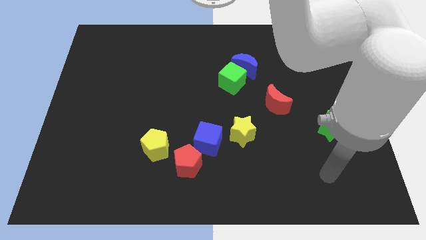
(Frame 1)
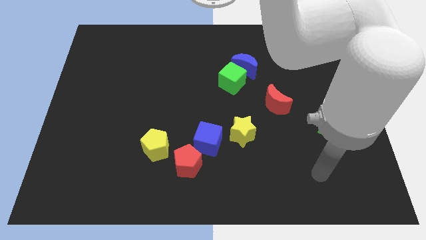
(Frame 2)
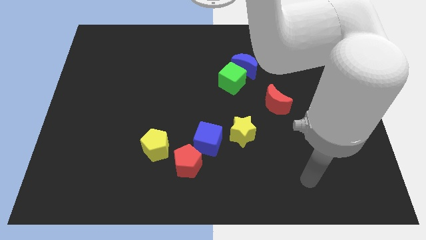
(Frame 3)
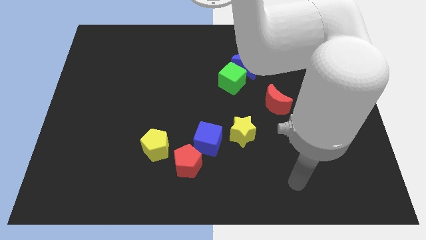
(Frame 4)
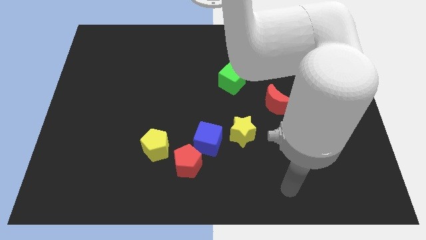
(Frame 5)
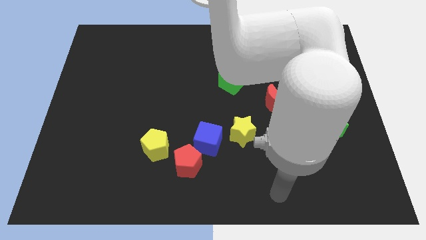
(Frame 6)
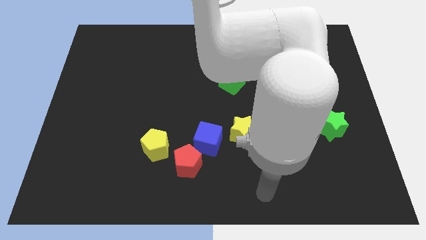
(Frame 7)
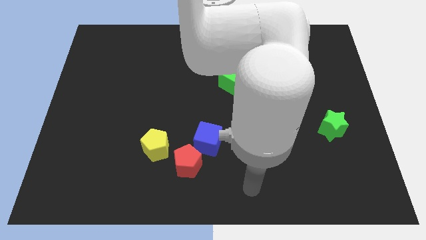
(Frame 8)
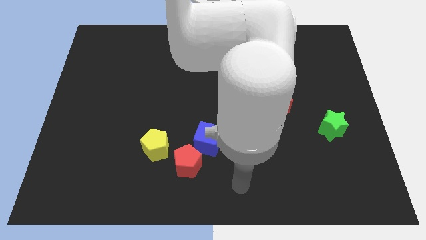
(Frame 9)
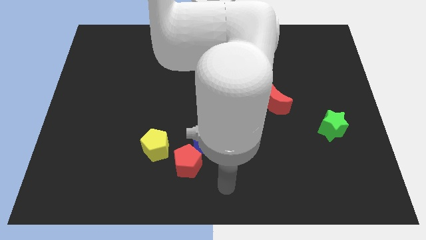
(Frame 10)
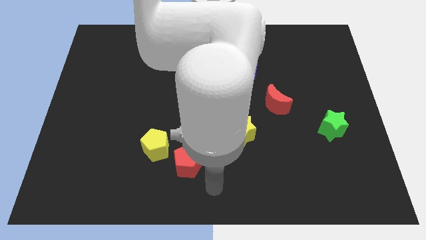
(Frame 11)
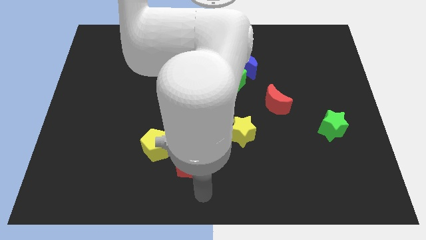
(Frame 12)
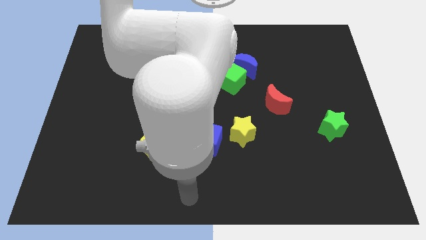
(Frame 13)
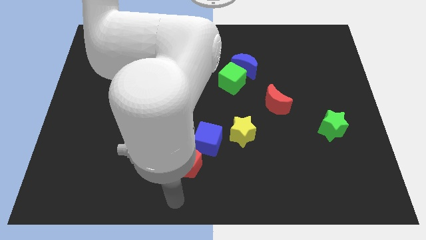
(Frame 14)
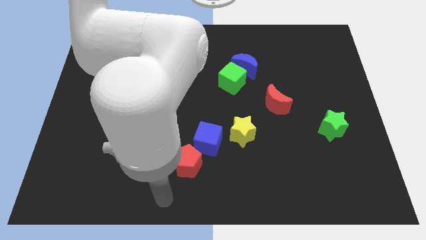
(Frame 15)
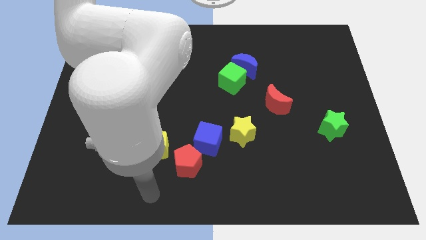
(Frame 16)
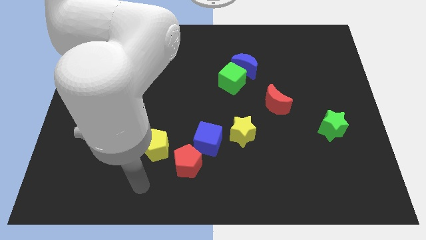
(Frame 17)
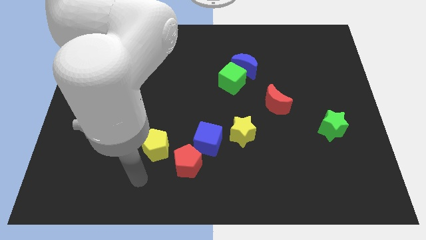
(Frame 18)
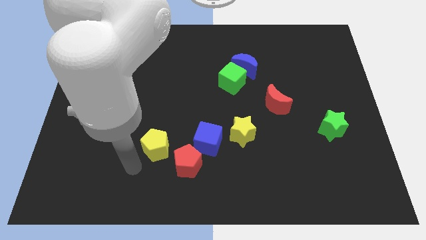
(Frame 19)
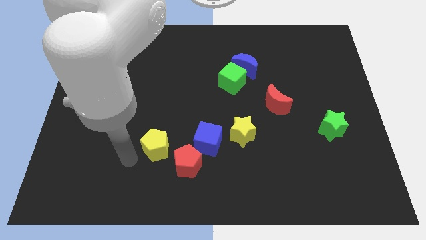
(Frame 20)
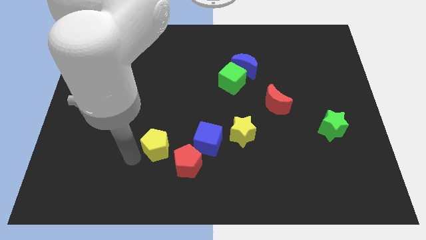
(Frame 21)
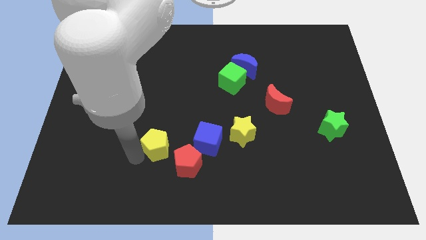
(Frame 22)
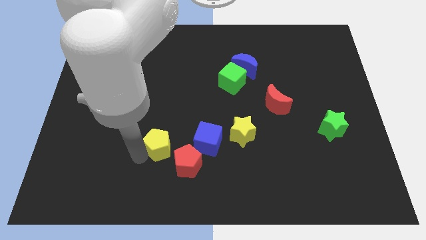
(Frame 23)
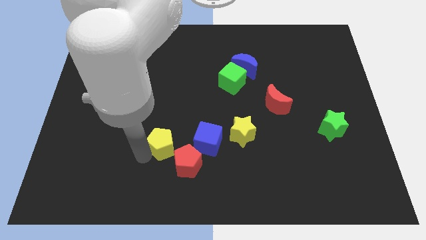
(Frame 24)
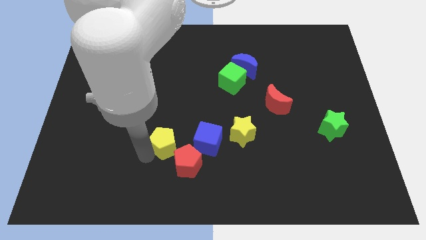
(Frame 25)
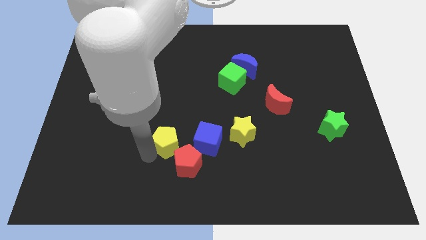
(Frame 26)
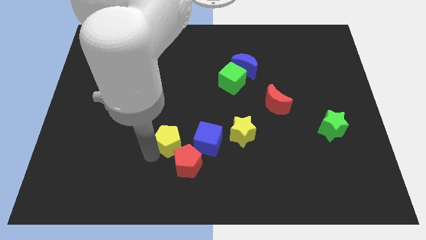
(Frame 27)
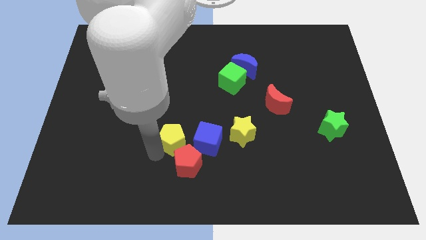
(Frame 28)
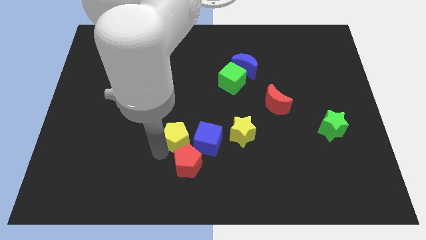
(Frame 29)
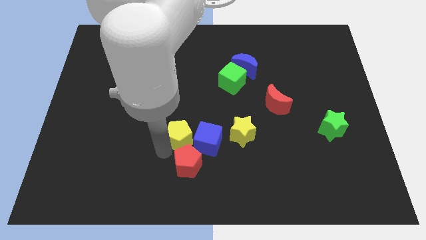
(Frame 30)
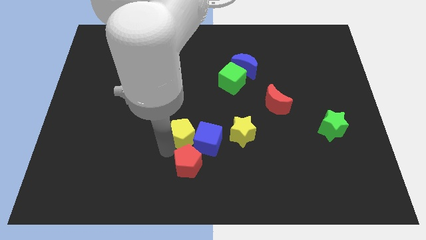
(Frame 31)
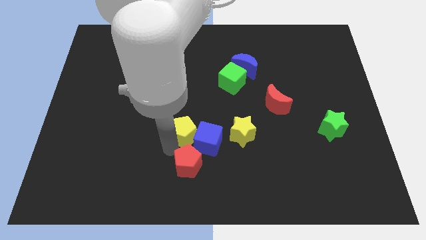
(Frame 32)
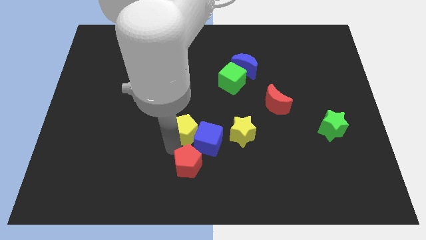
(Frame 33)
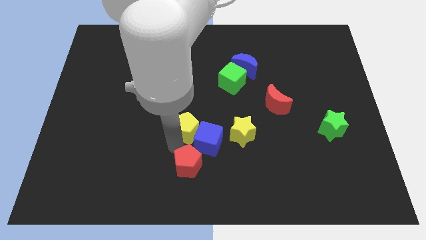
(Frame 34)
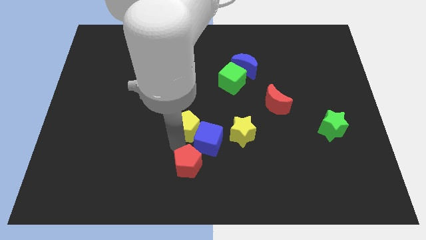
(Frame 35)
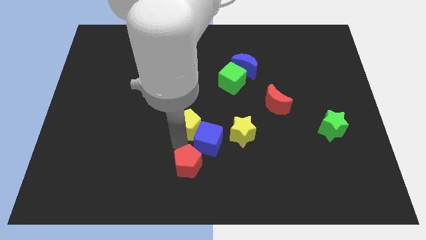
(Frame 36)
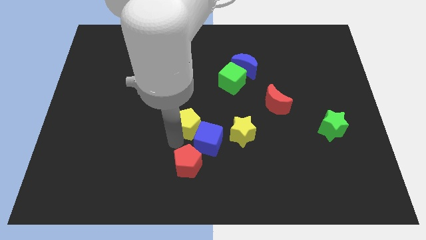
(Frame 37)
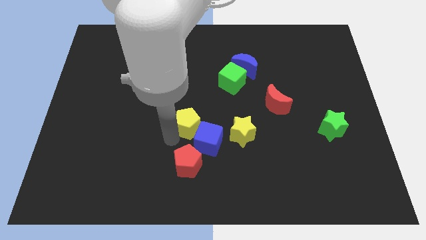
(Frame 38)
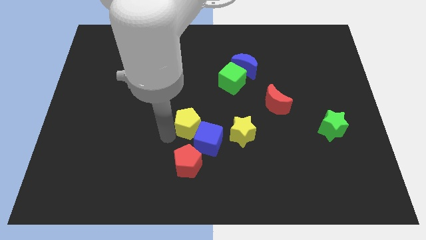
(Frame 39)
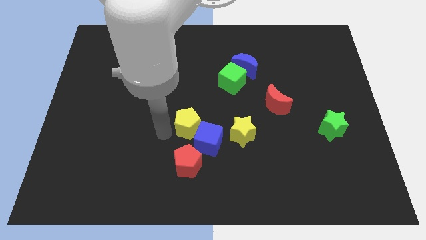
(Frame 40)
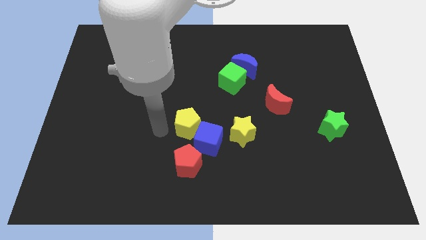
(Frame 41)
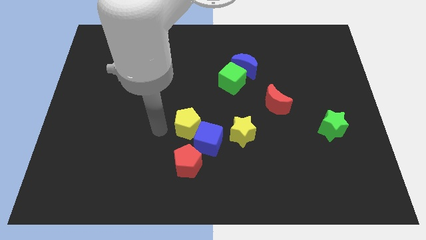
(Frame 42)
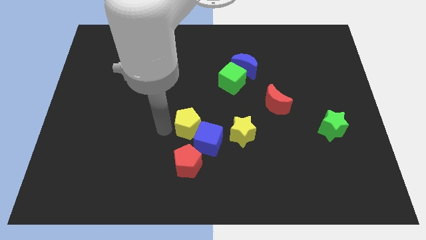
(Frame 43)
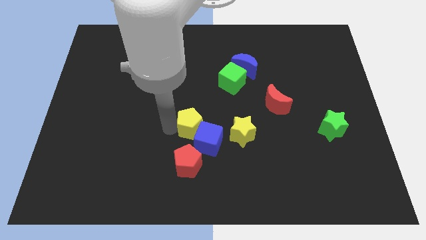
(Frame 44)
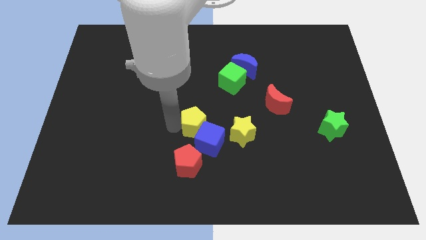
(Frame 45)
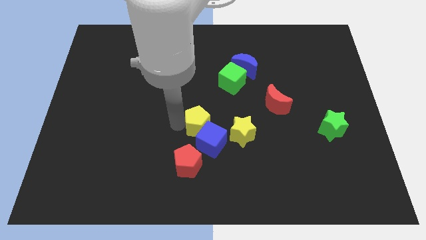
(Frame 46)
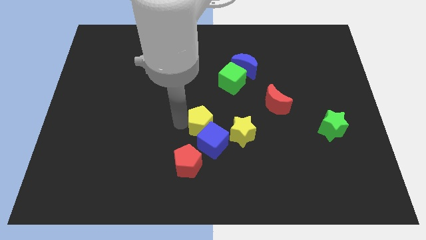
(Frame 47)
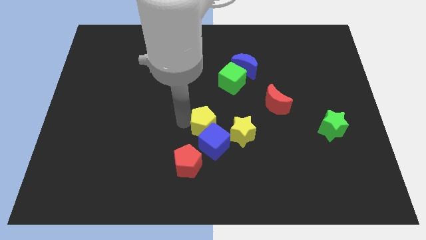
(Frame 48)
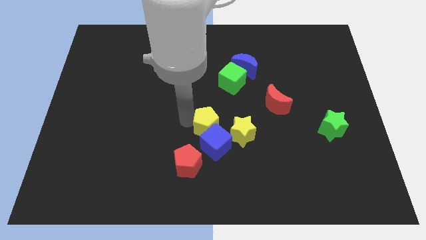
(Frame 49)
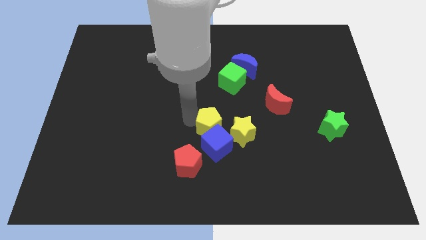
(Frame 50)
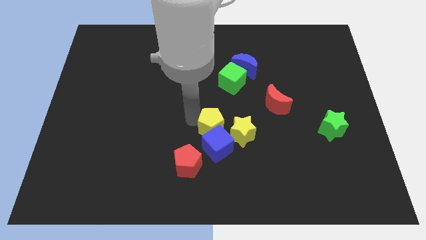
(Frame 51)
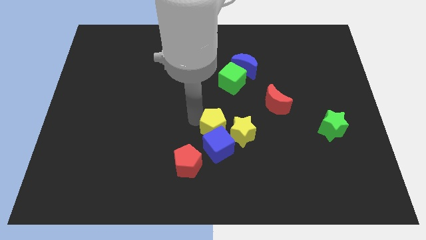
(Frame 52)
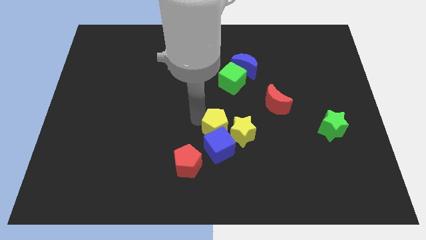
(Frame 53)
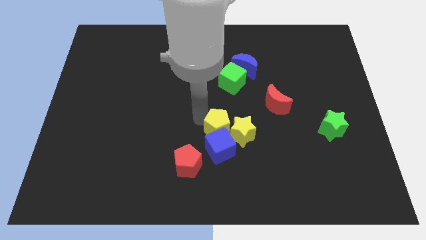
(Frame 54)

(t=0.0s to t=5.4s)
put the yellow pentagon towards the yellow star

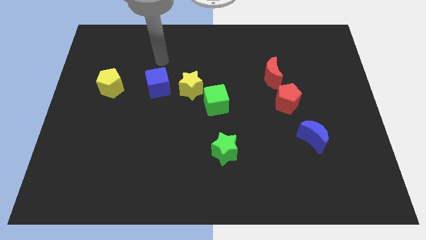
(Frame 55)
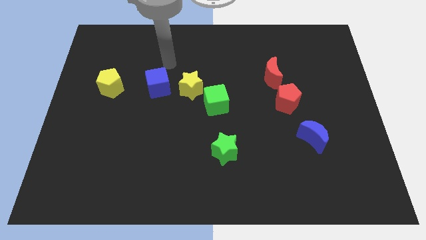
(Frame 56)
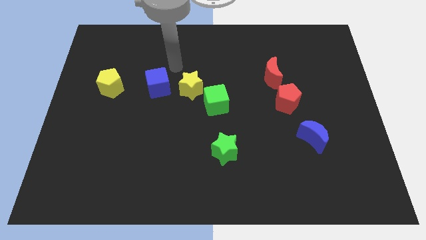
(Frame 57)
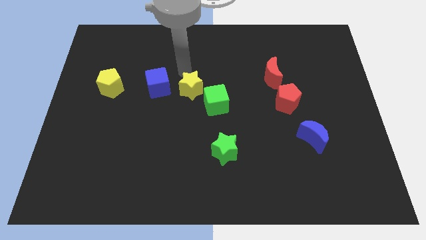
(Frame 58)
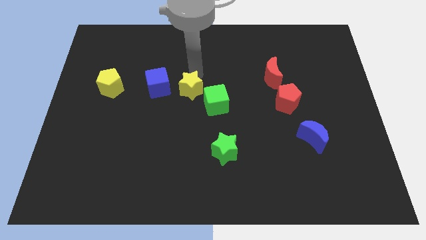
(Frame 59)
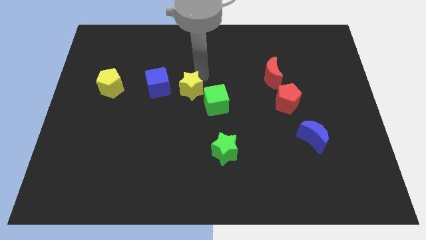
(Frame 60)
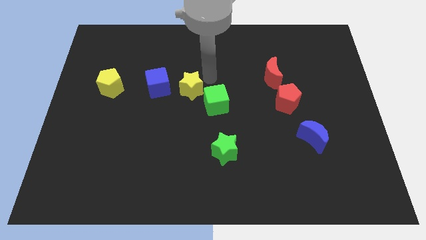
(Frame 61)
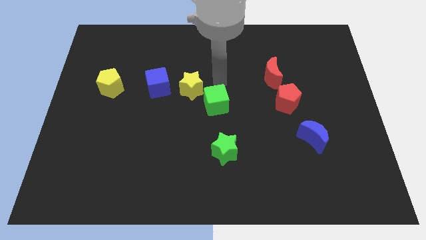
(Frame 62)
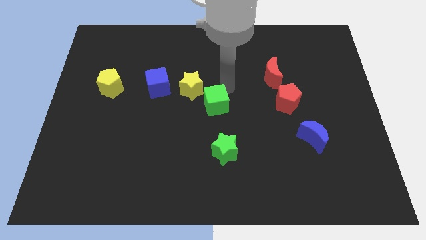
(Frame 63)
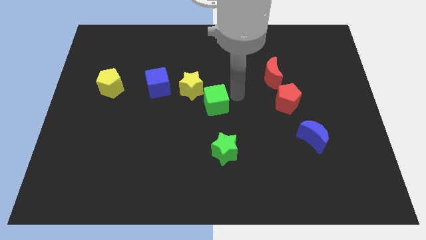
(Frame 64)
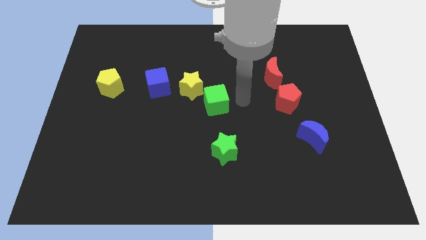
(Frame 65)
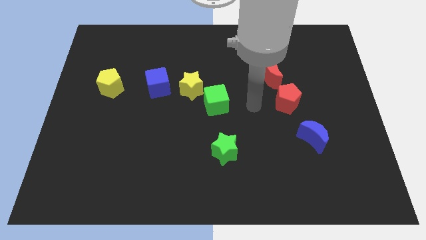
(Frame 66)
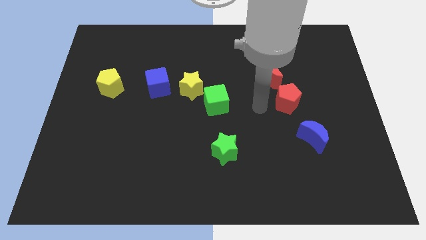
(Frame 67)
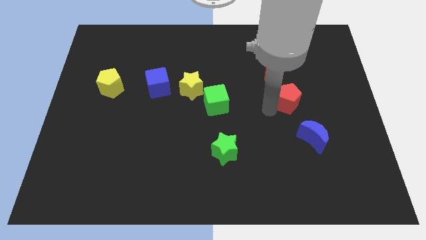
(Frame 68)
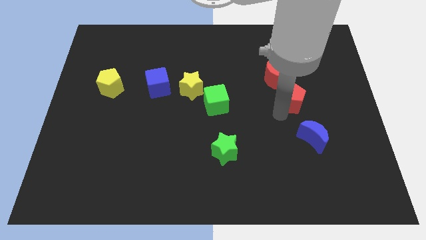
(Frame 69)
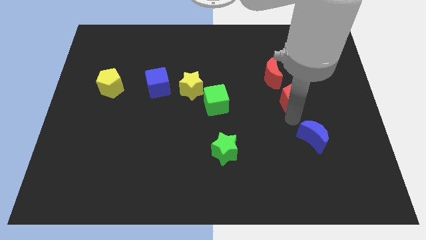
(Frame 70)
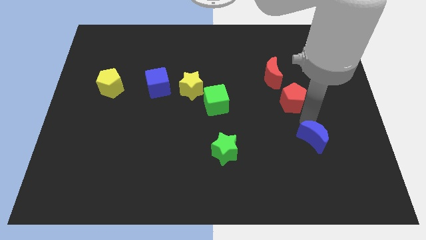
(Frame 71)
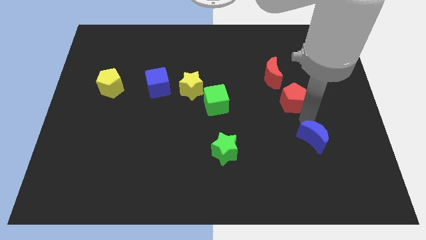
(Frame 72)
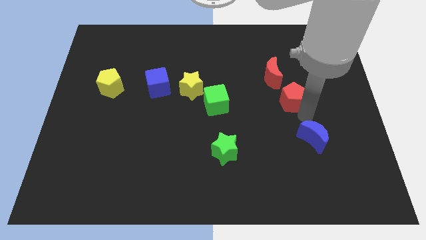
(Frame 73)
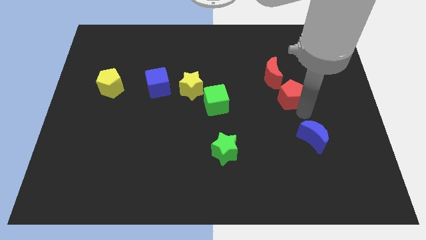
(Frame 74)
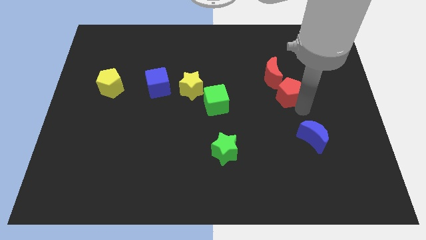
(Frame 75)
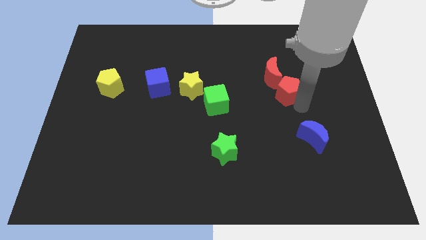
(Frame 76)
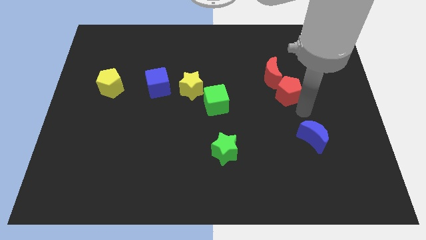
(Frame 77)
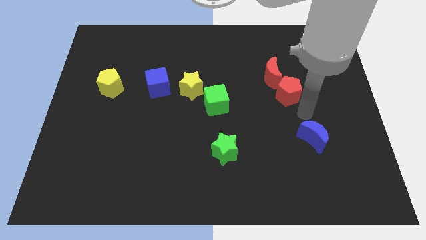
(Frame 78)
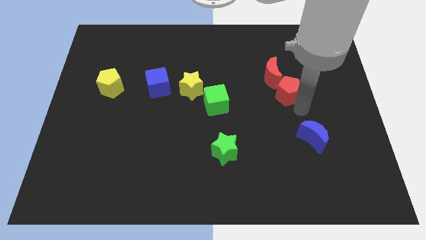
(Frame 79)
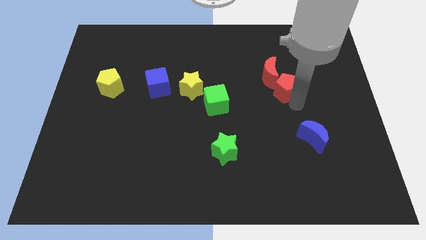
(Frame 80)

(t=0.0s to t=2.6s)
move the red pentagon close to the red moon

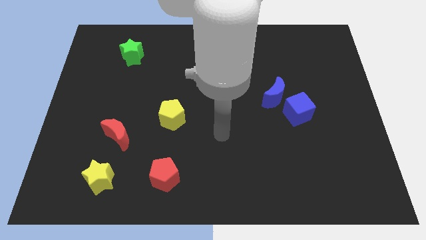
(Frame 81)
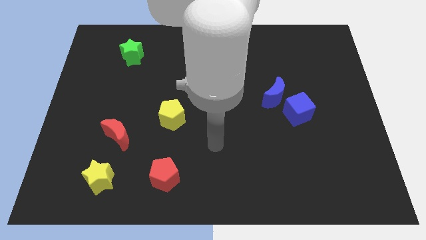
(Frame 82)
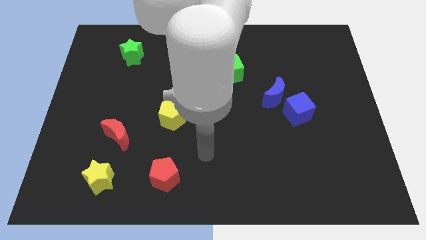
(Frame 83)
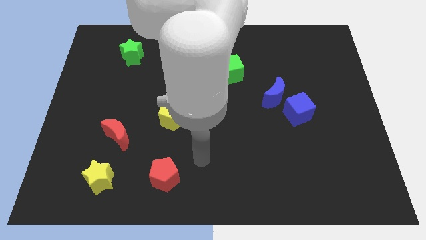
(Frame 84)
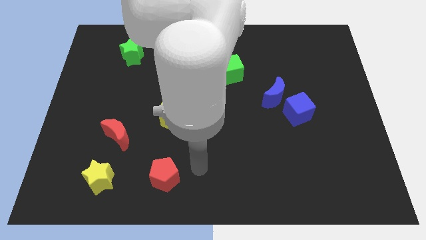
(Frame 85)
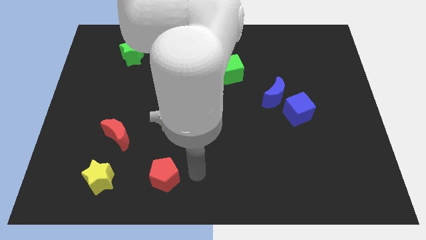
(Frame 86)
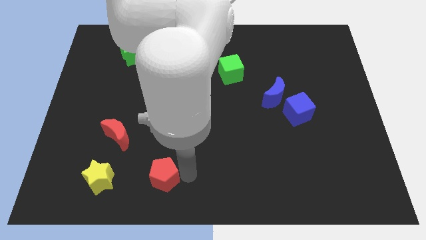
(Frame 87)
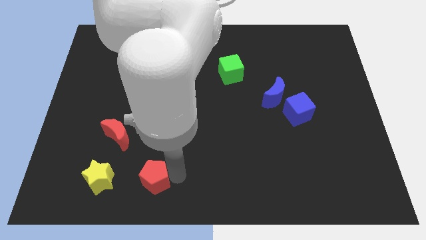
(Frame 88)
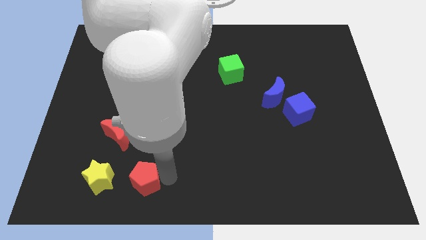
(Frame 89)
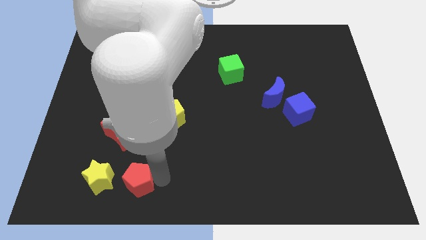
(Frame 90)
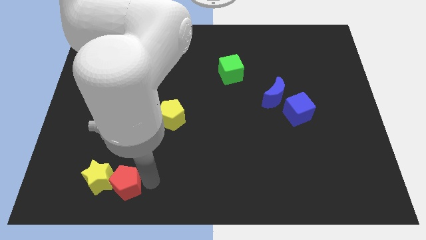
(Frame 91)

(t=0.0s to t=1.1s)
move the red pentagon next to the yellow star
